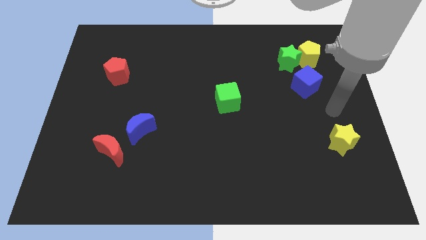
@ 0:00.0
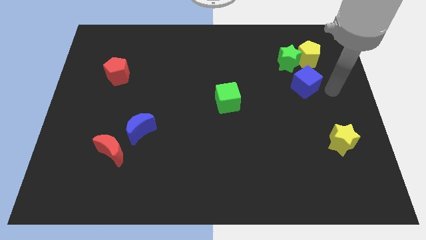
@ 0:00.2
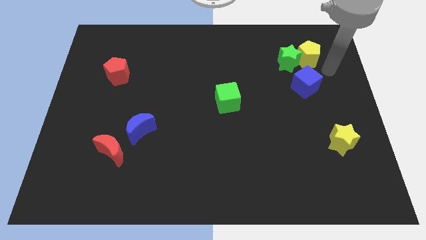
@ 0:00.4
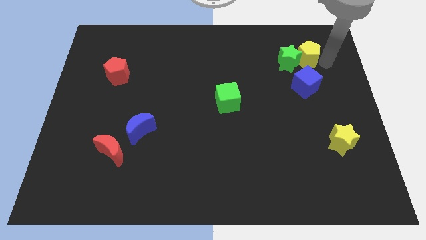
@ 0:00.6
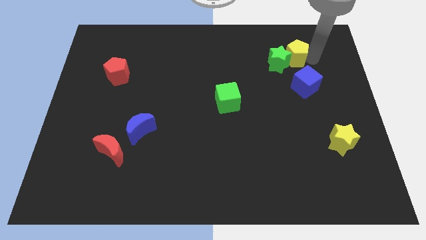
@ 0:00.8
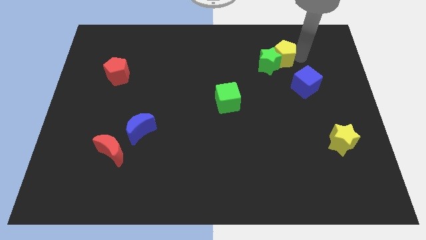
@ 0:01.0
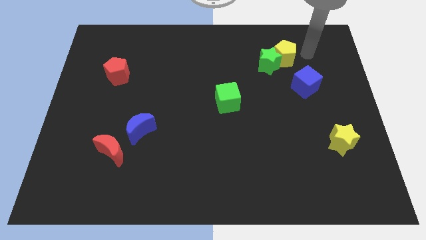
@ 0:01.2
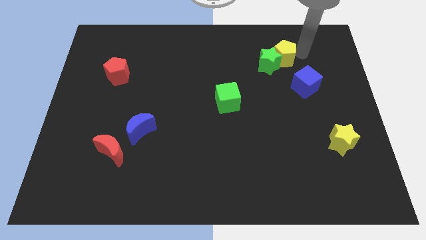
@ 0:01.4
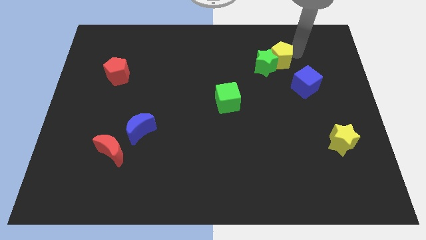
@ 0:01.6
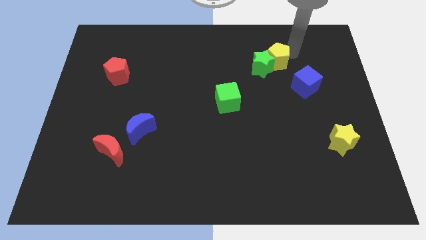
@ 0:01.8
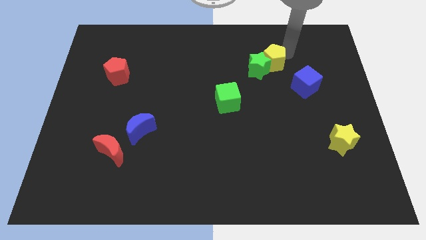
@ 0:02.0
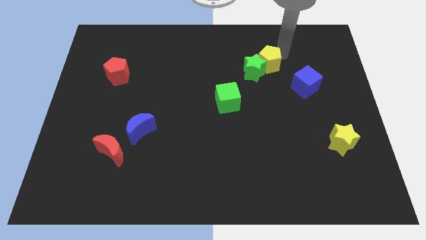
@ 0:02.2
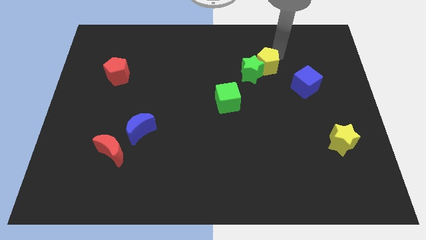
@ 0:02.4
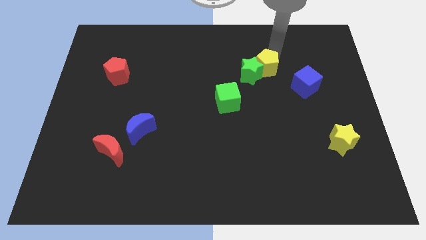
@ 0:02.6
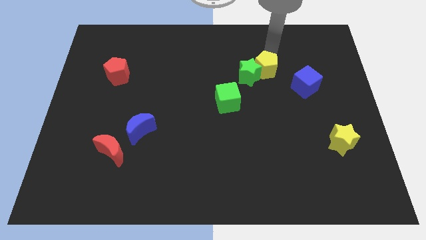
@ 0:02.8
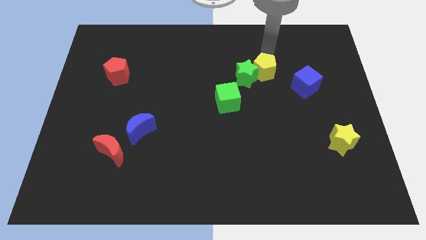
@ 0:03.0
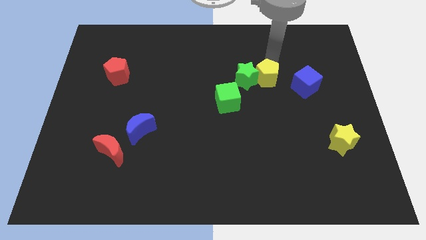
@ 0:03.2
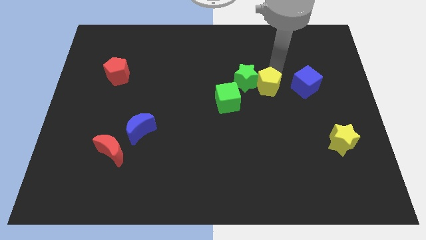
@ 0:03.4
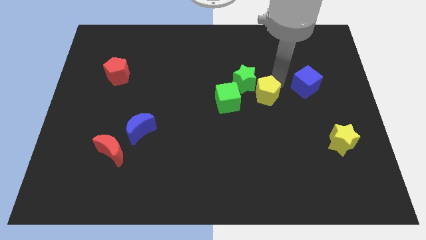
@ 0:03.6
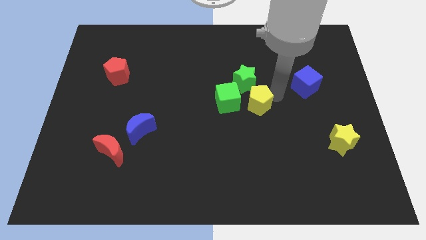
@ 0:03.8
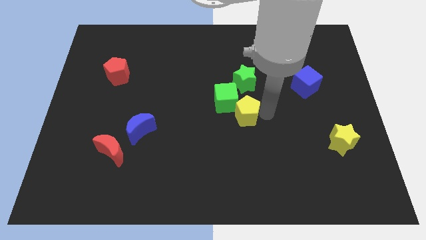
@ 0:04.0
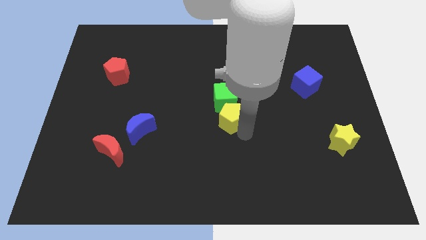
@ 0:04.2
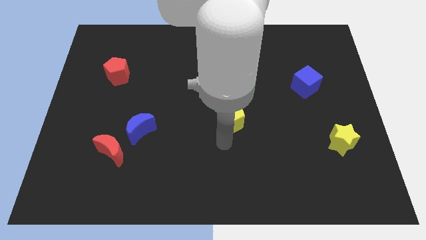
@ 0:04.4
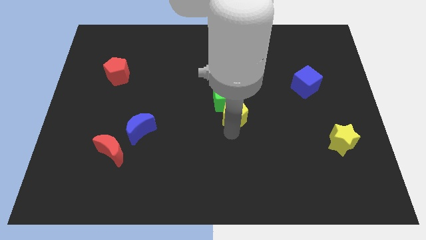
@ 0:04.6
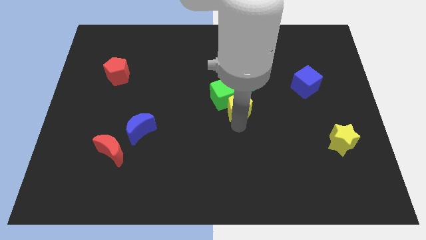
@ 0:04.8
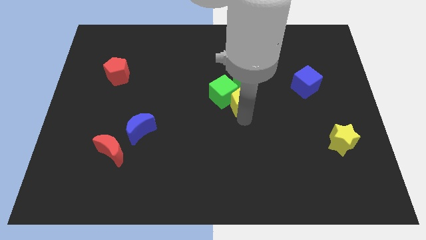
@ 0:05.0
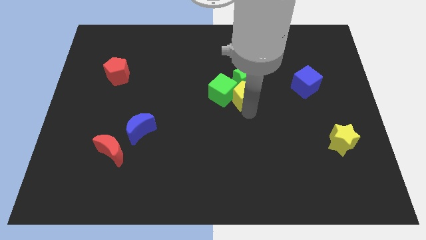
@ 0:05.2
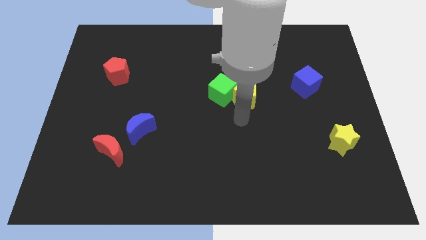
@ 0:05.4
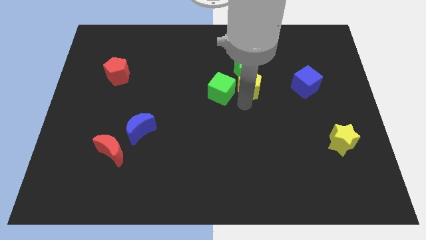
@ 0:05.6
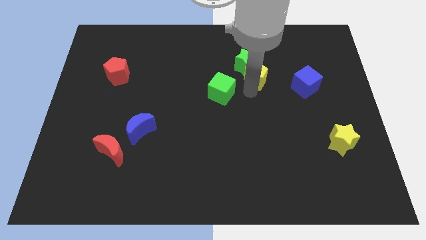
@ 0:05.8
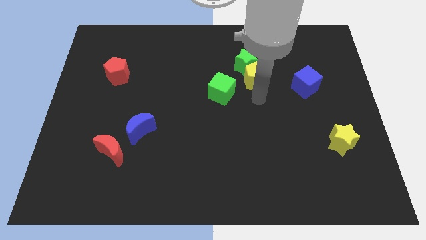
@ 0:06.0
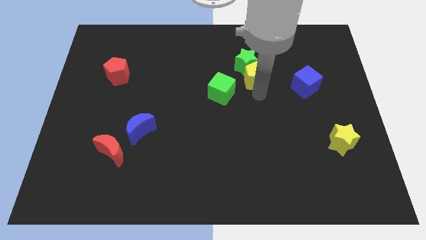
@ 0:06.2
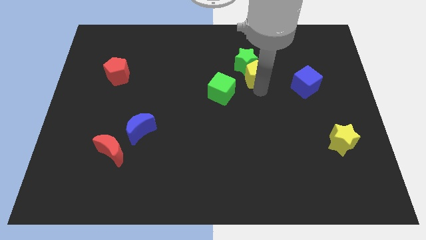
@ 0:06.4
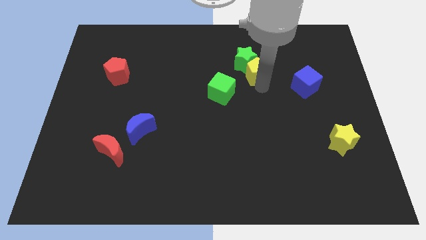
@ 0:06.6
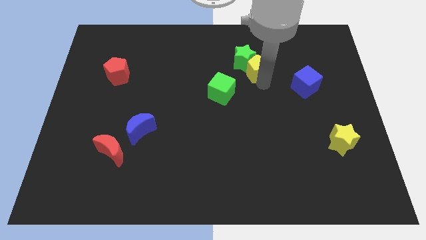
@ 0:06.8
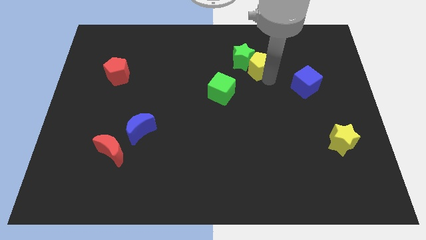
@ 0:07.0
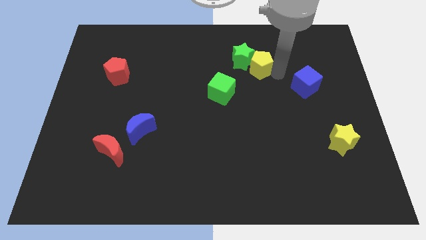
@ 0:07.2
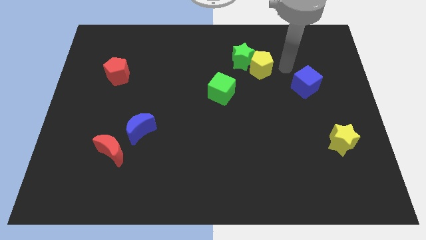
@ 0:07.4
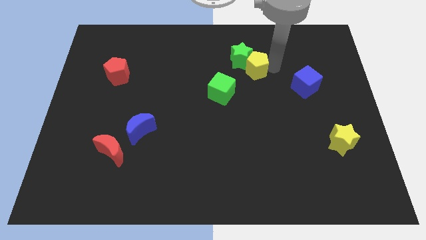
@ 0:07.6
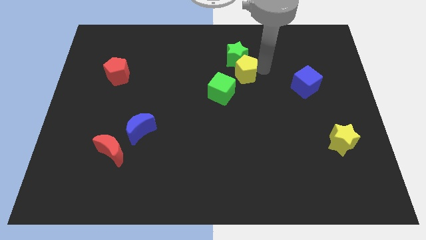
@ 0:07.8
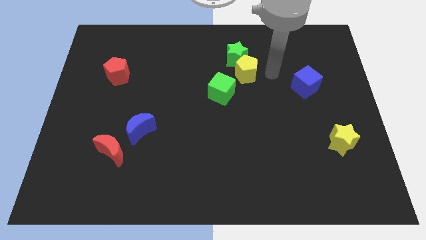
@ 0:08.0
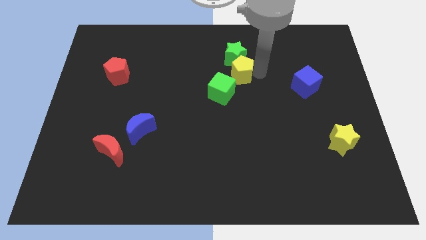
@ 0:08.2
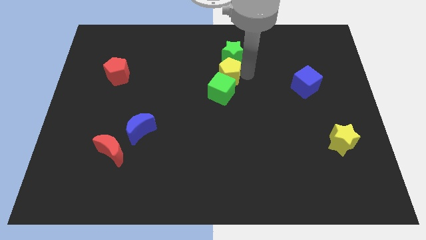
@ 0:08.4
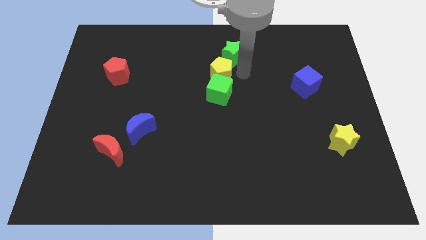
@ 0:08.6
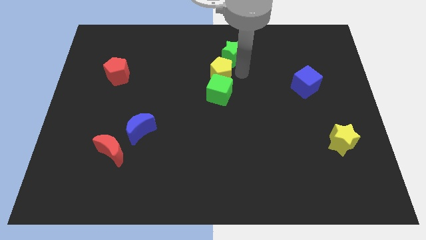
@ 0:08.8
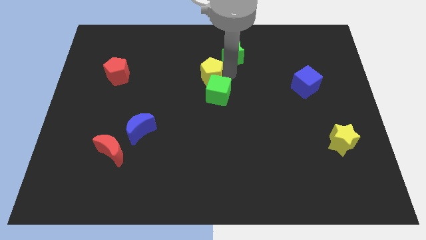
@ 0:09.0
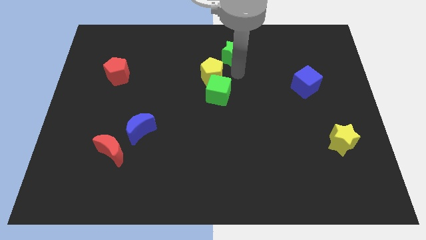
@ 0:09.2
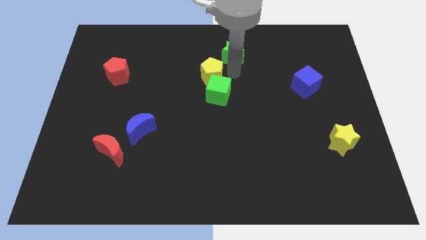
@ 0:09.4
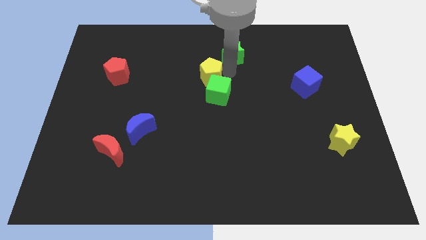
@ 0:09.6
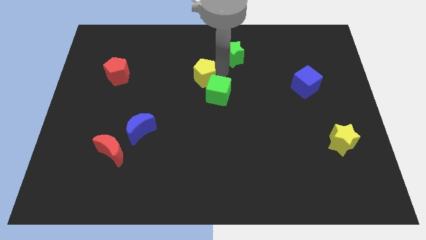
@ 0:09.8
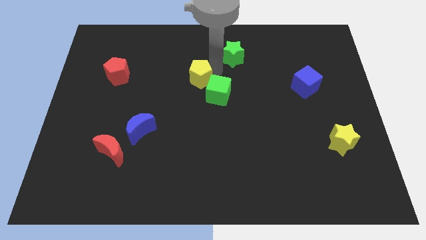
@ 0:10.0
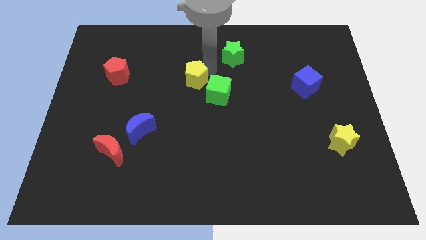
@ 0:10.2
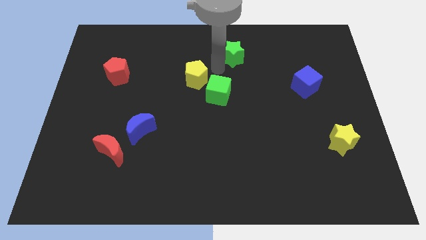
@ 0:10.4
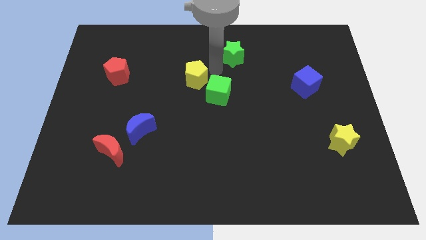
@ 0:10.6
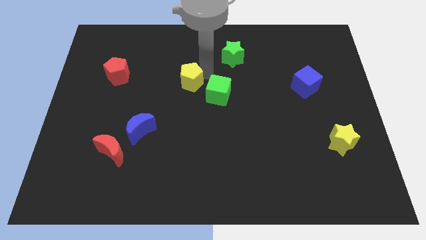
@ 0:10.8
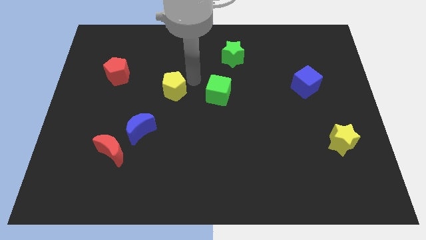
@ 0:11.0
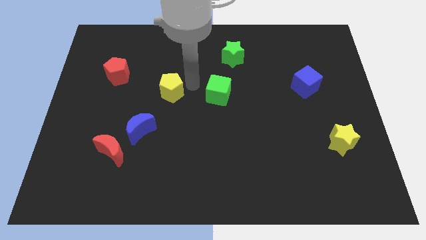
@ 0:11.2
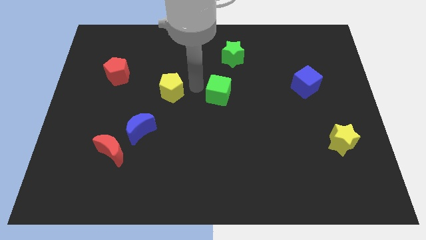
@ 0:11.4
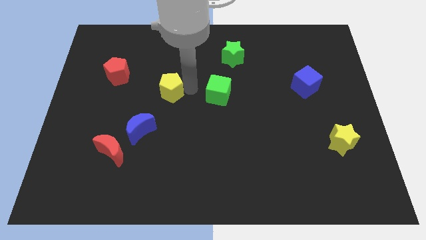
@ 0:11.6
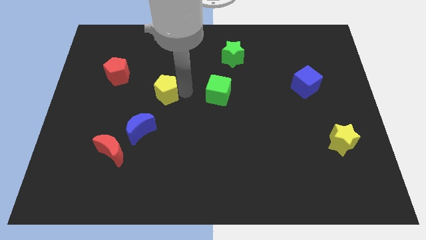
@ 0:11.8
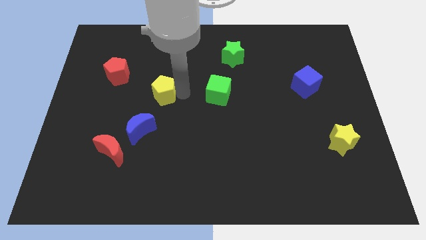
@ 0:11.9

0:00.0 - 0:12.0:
move the yellow pentagon to the top of the blue moon

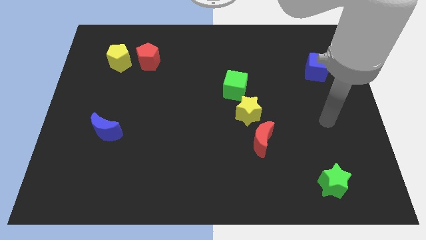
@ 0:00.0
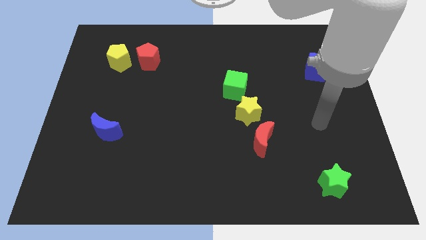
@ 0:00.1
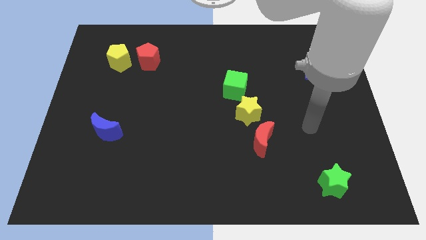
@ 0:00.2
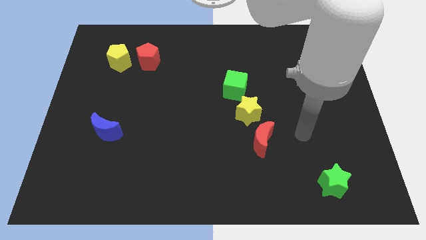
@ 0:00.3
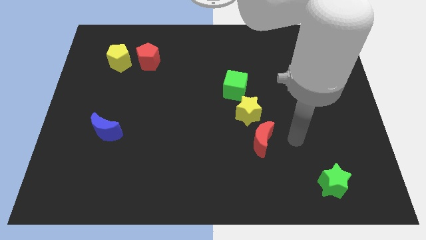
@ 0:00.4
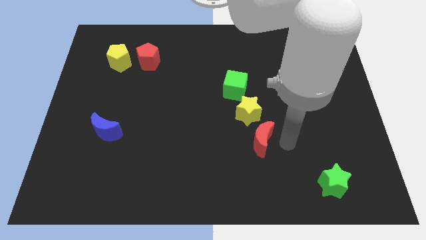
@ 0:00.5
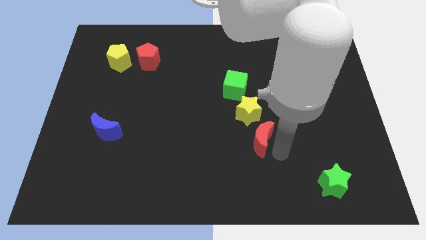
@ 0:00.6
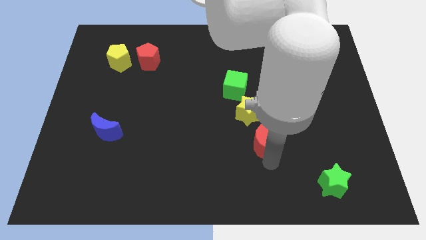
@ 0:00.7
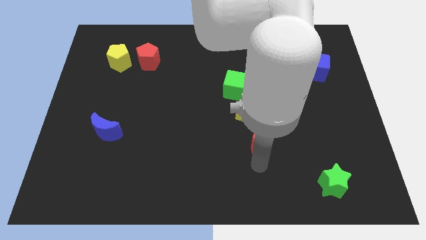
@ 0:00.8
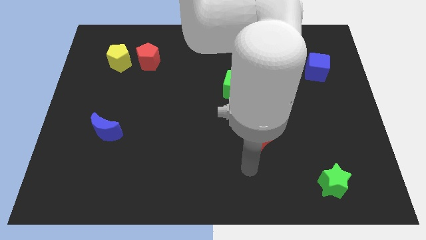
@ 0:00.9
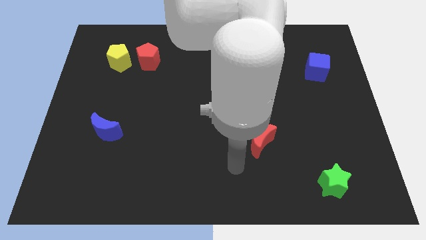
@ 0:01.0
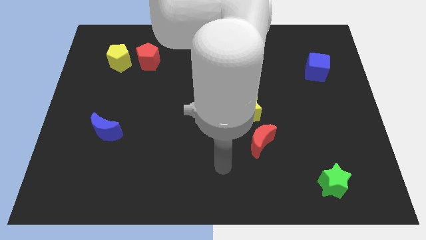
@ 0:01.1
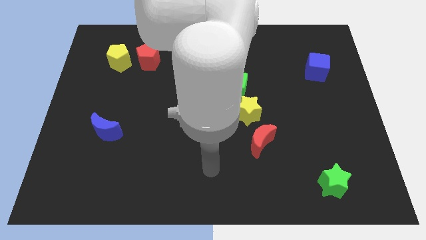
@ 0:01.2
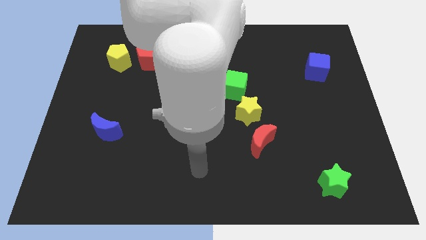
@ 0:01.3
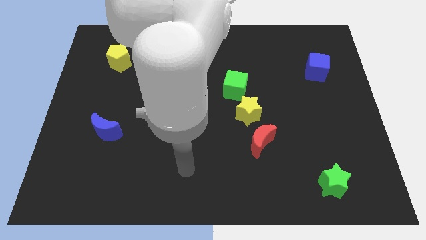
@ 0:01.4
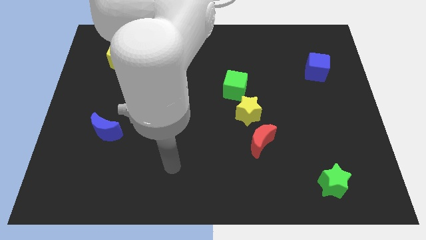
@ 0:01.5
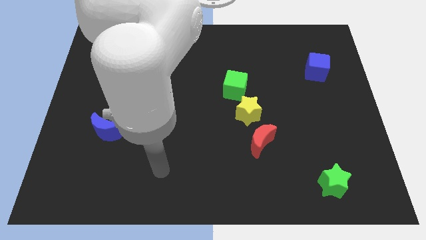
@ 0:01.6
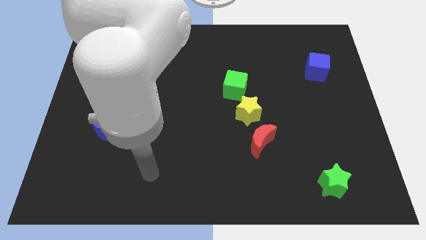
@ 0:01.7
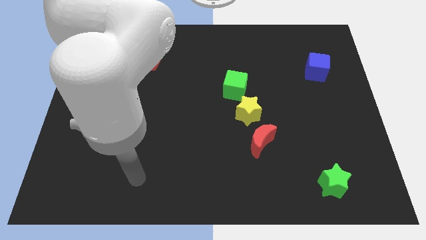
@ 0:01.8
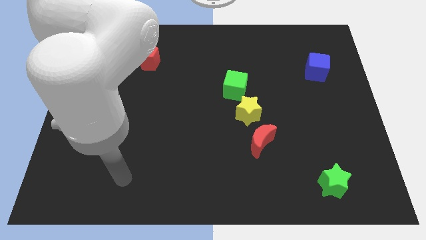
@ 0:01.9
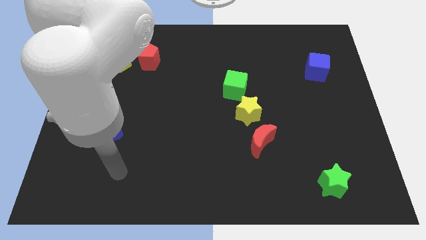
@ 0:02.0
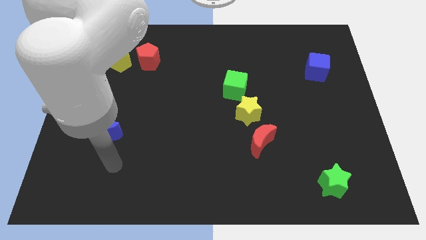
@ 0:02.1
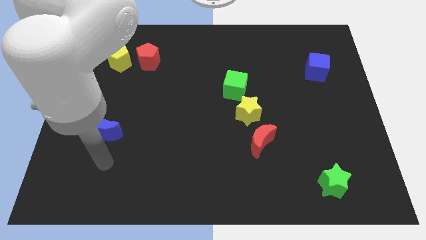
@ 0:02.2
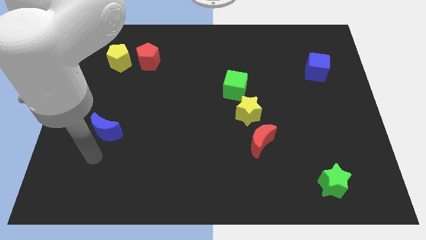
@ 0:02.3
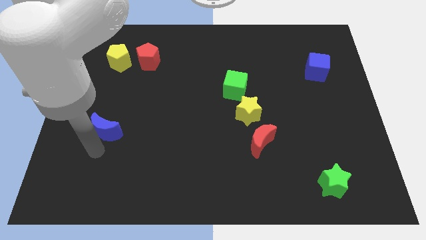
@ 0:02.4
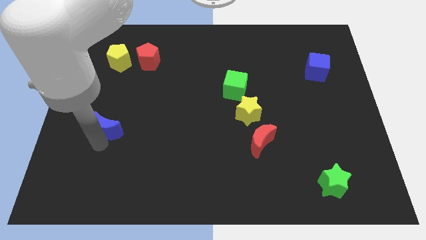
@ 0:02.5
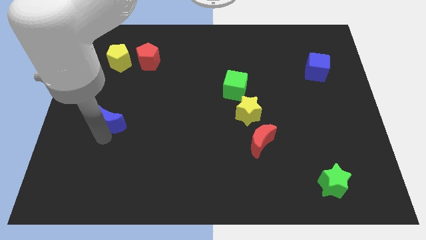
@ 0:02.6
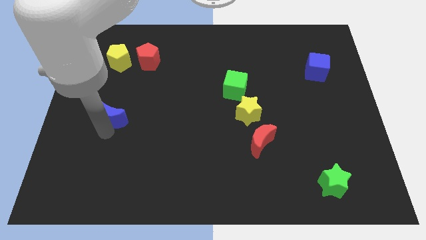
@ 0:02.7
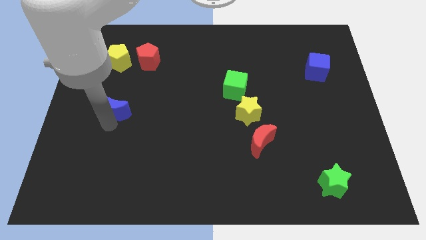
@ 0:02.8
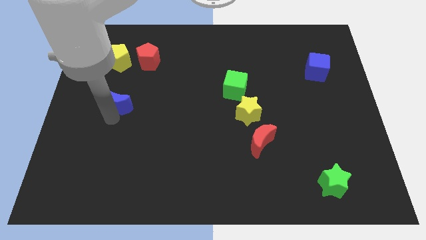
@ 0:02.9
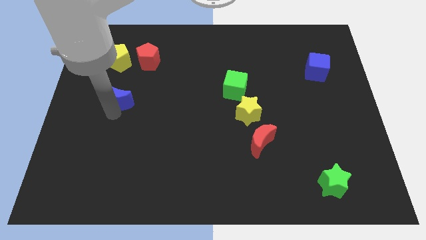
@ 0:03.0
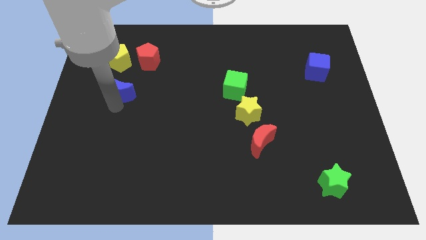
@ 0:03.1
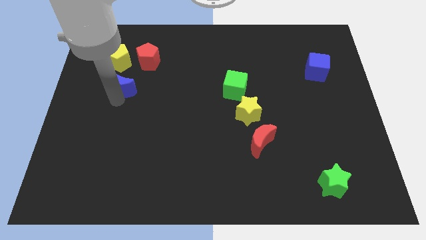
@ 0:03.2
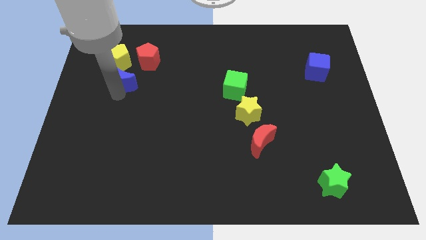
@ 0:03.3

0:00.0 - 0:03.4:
put the blue moon diagonally down and to the right of the yellow pentagon
